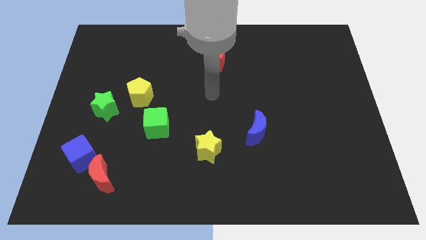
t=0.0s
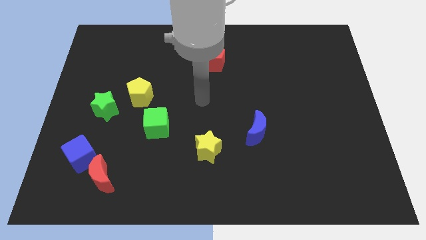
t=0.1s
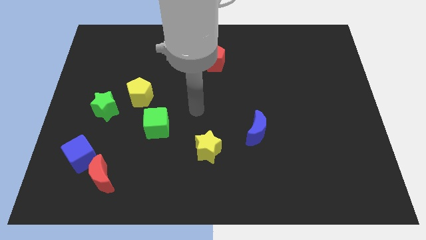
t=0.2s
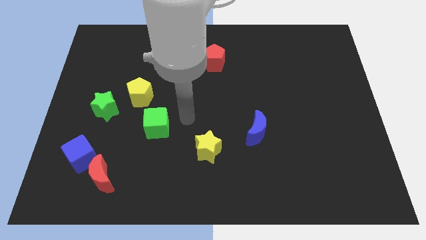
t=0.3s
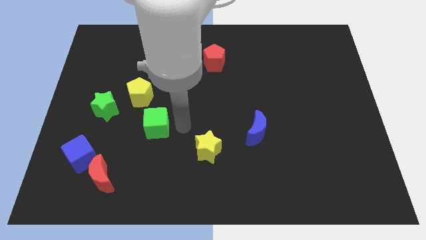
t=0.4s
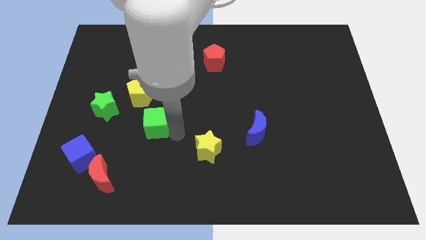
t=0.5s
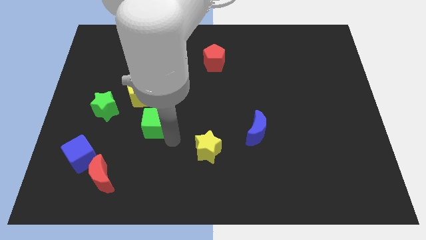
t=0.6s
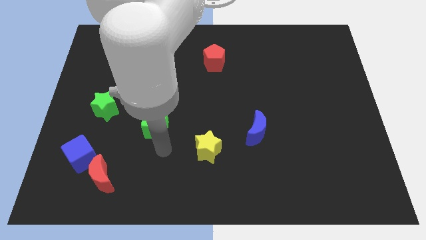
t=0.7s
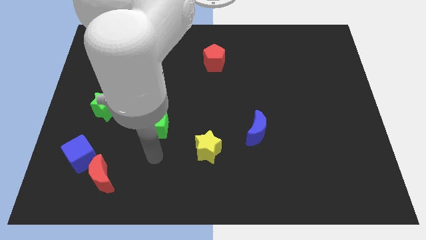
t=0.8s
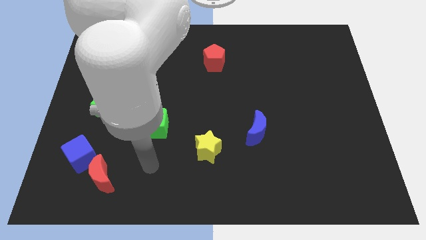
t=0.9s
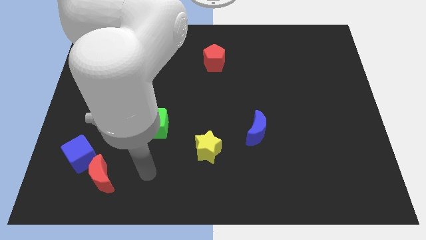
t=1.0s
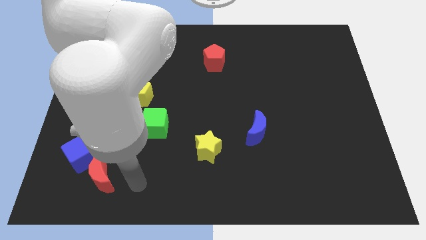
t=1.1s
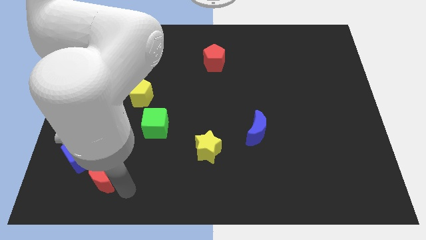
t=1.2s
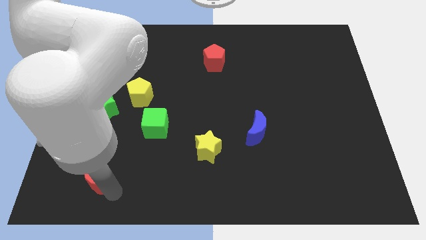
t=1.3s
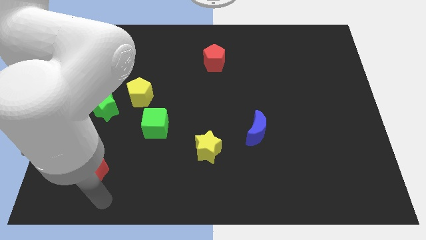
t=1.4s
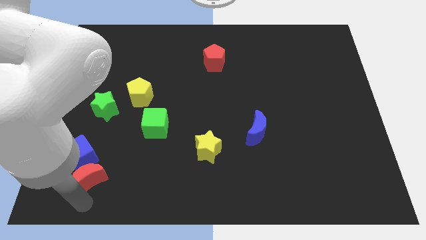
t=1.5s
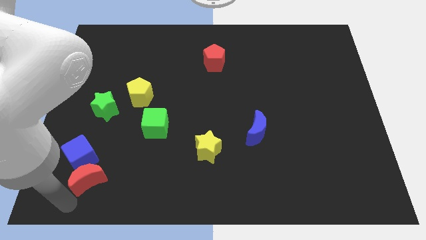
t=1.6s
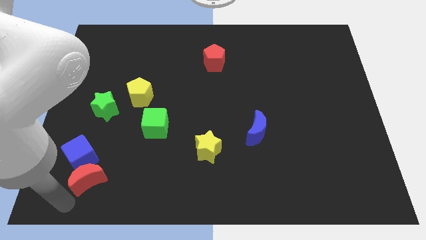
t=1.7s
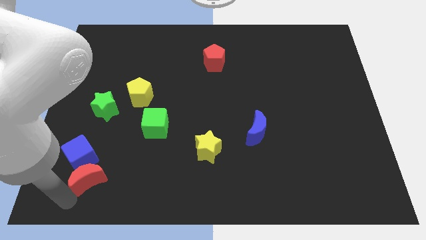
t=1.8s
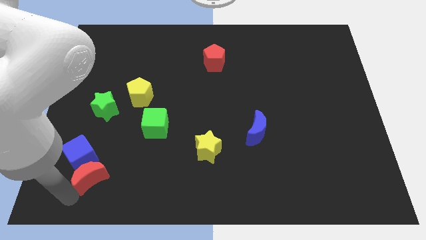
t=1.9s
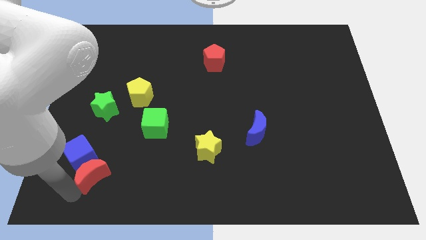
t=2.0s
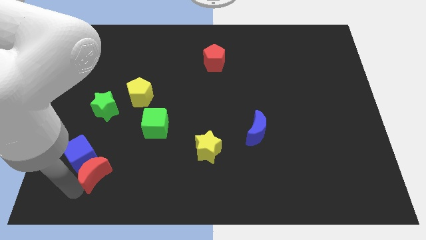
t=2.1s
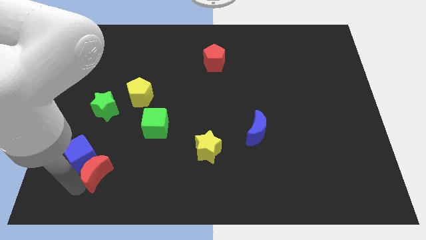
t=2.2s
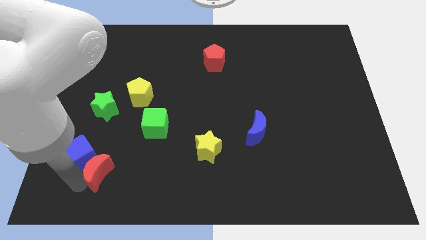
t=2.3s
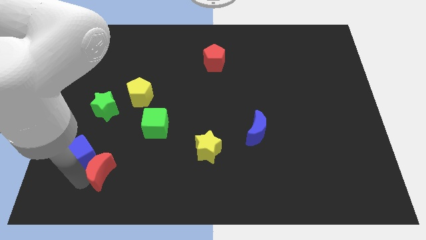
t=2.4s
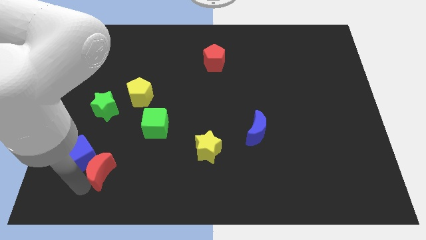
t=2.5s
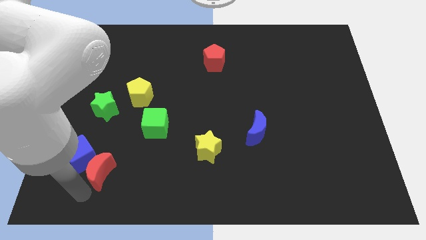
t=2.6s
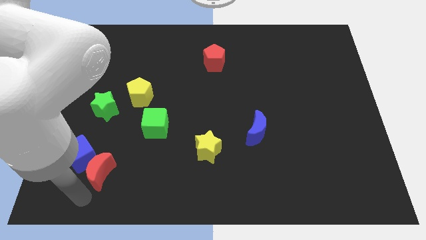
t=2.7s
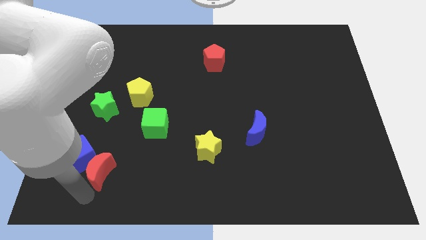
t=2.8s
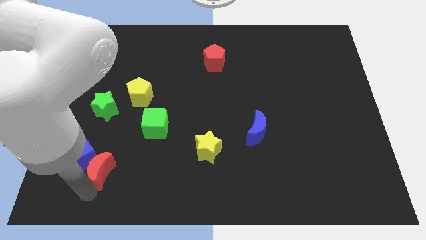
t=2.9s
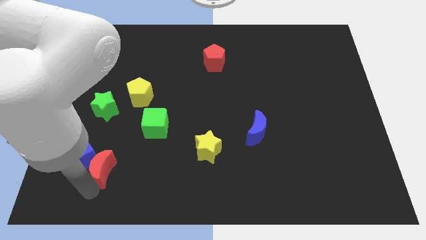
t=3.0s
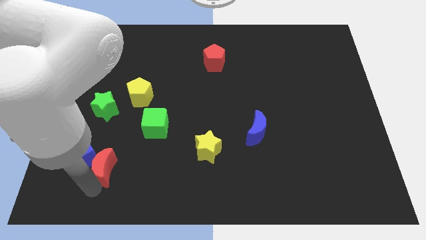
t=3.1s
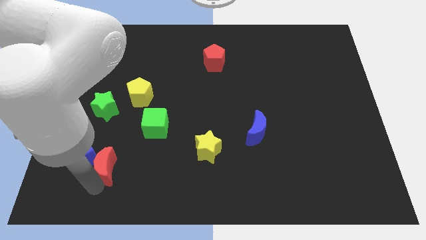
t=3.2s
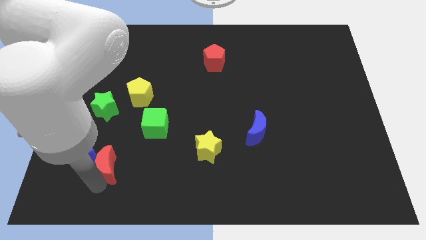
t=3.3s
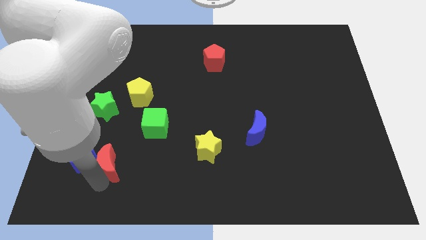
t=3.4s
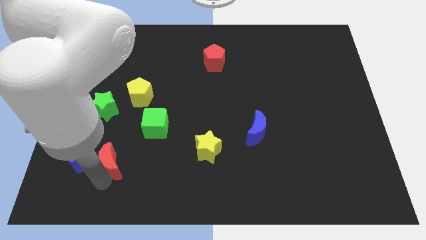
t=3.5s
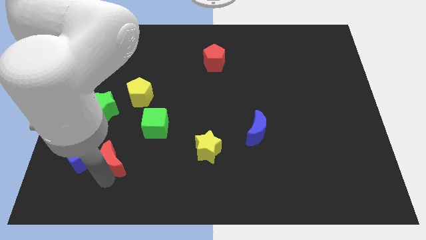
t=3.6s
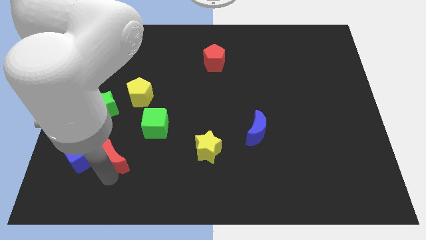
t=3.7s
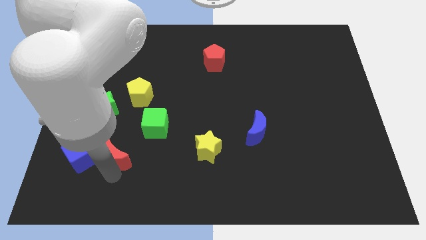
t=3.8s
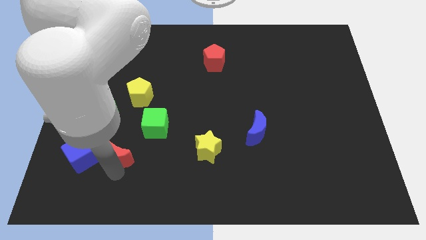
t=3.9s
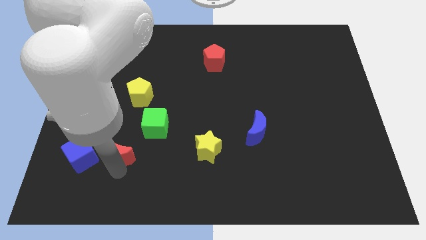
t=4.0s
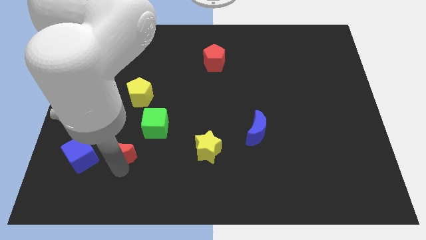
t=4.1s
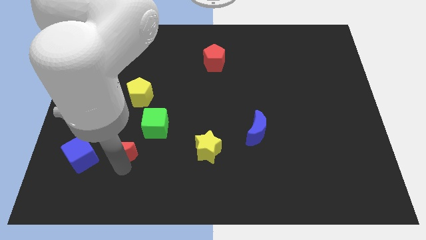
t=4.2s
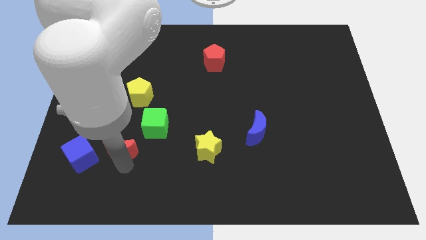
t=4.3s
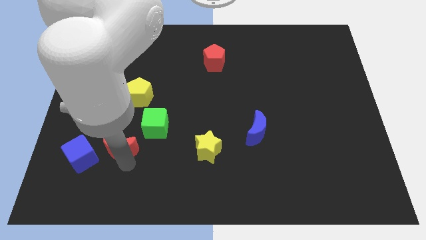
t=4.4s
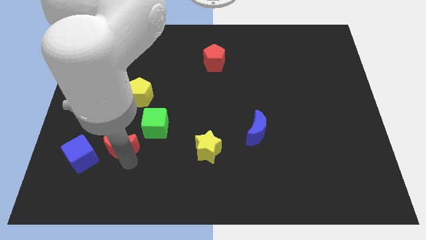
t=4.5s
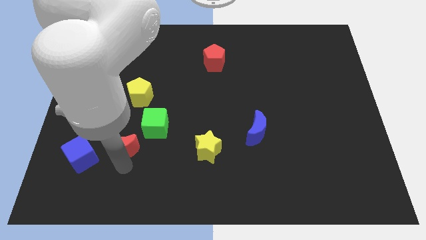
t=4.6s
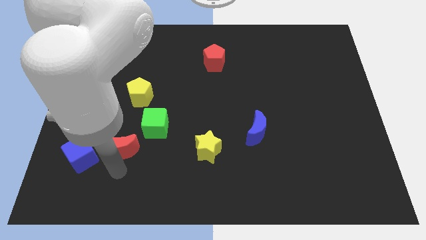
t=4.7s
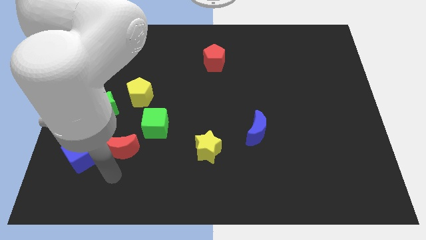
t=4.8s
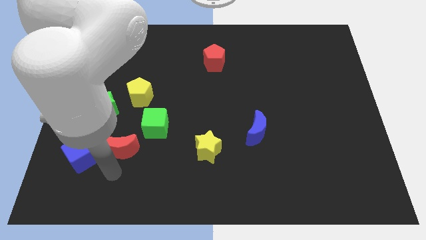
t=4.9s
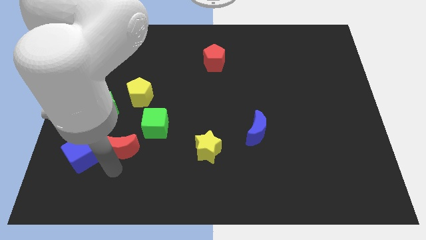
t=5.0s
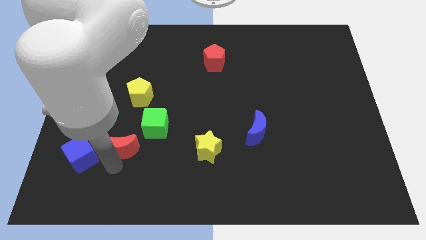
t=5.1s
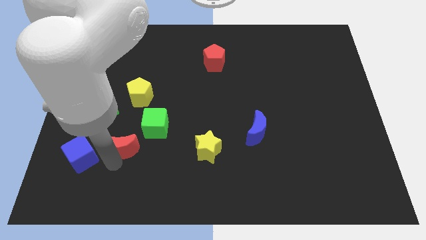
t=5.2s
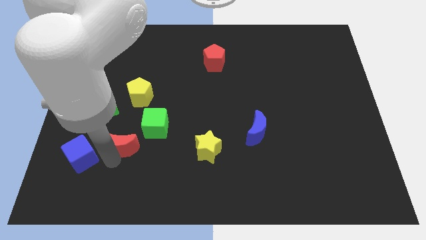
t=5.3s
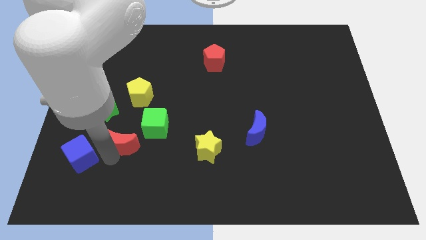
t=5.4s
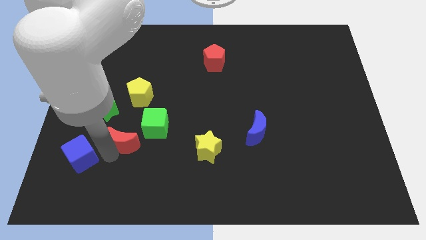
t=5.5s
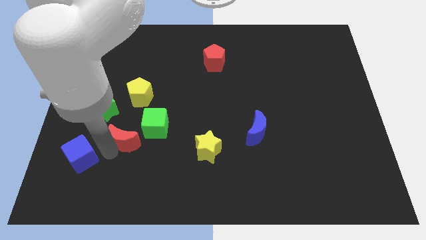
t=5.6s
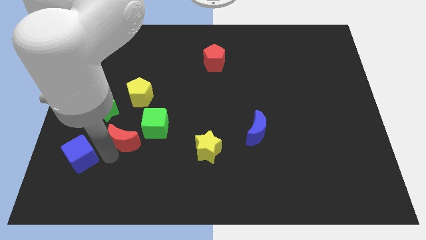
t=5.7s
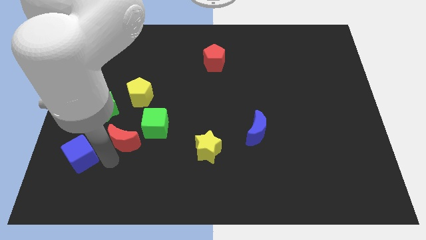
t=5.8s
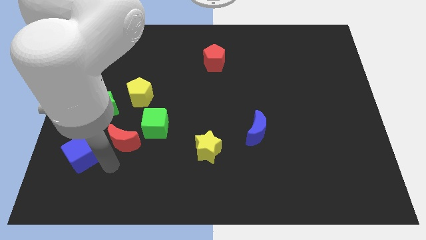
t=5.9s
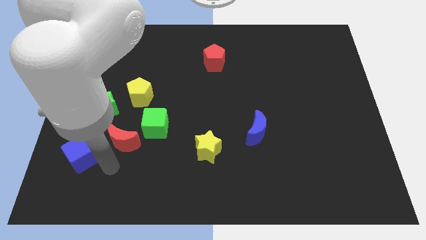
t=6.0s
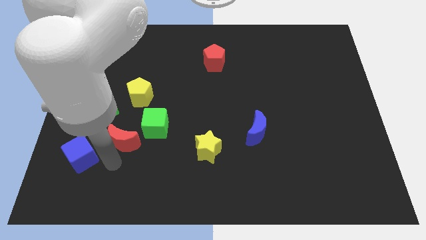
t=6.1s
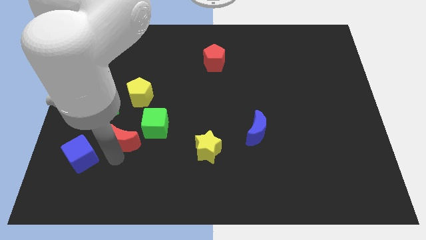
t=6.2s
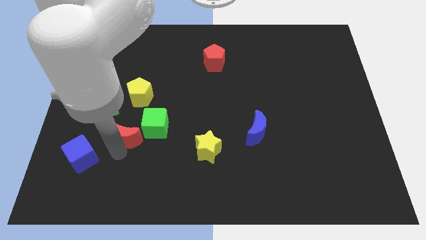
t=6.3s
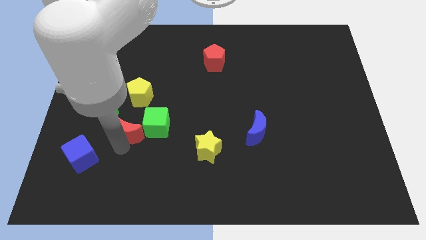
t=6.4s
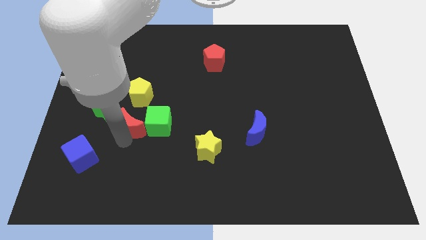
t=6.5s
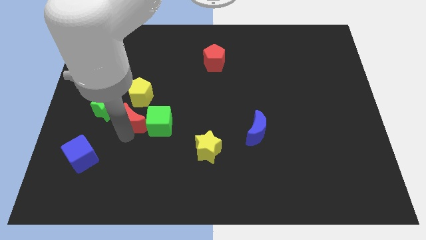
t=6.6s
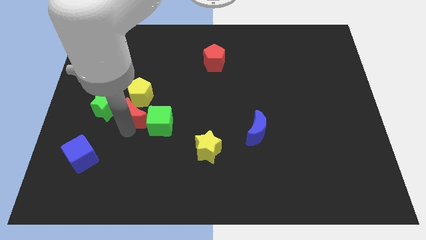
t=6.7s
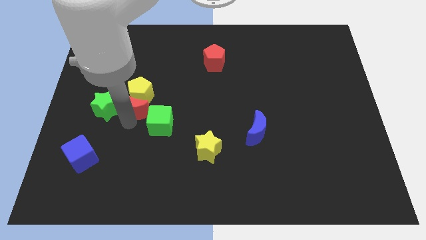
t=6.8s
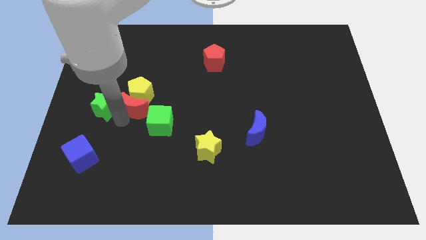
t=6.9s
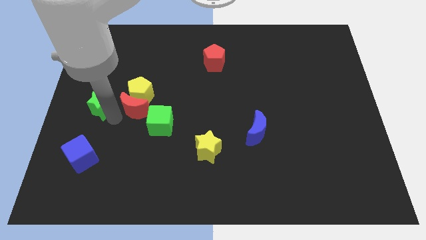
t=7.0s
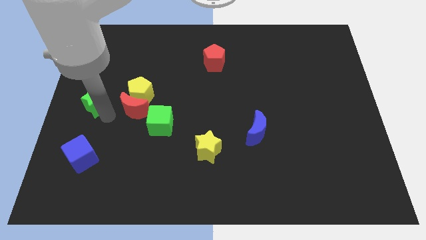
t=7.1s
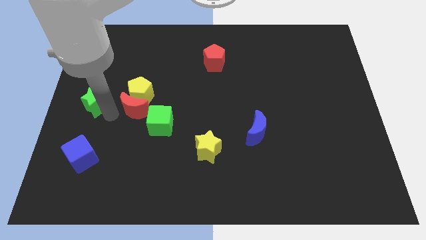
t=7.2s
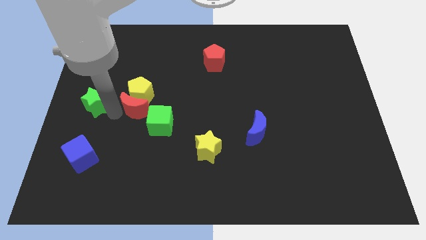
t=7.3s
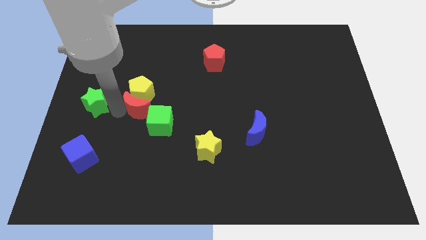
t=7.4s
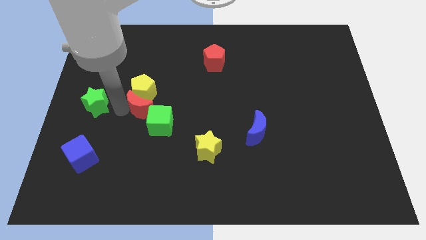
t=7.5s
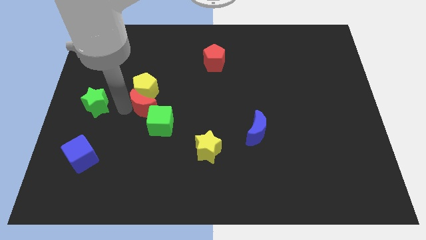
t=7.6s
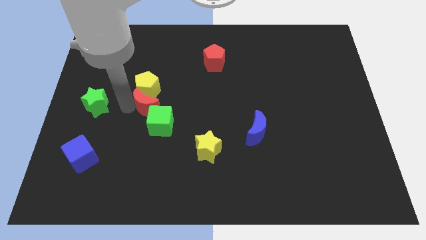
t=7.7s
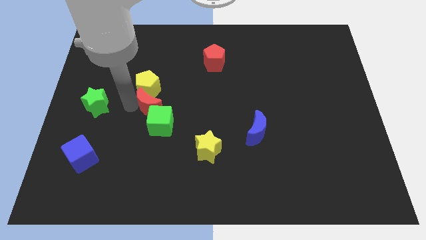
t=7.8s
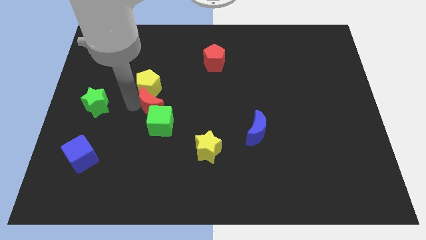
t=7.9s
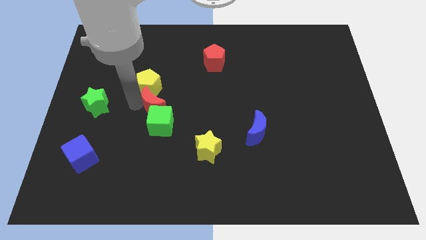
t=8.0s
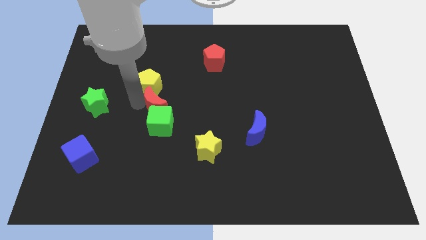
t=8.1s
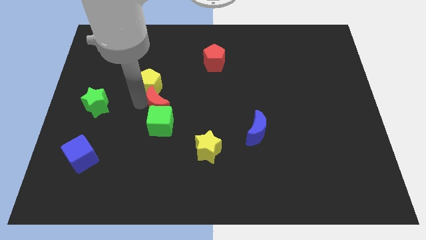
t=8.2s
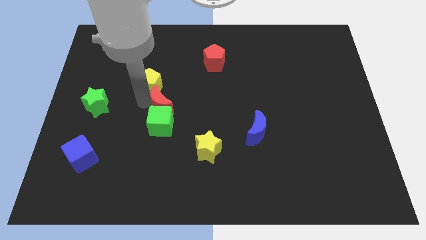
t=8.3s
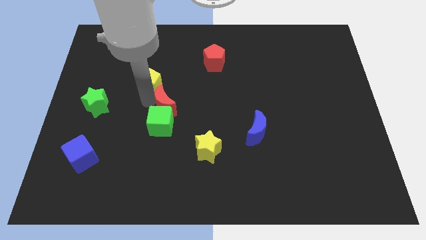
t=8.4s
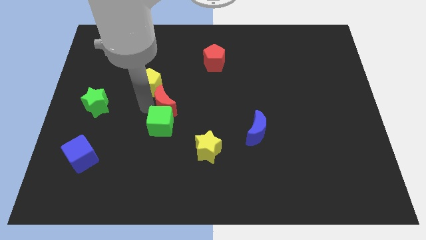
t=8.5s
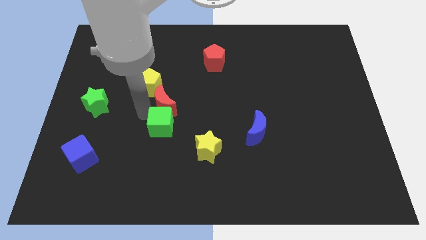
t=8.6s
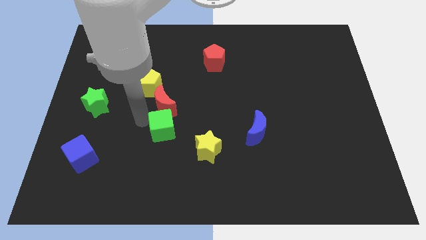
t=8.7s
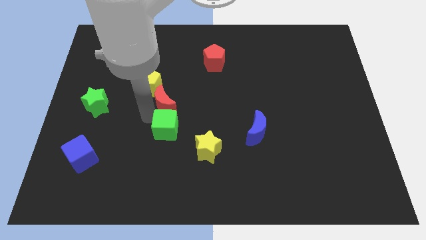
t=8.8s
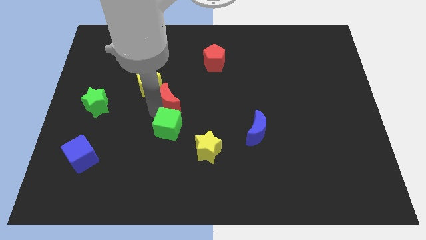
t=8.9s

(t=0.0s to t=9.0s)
put the red moon just right of the yellow pentagon
